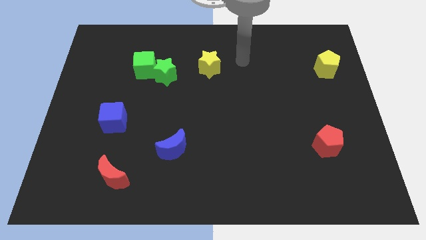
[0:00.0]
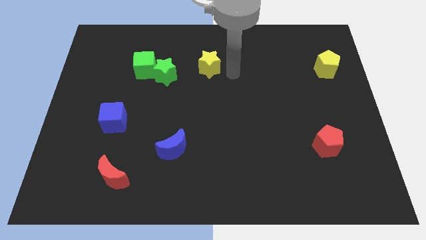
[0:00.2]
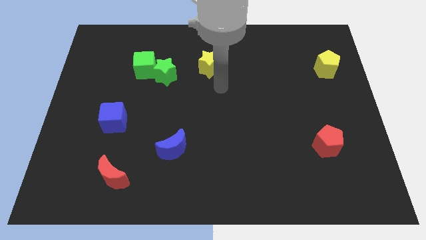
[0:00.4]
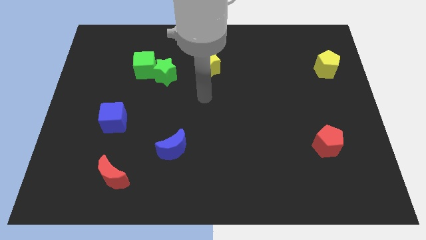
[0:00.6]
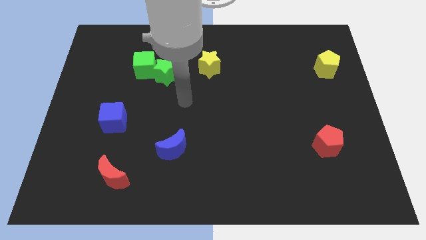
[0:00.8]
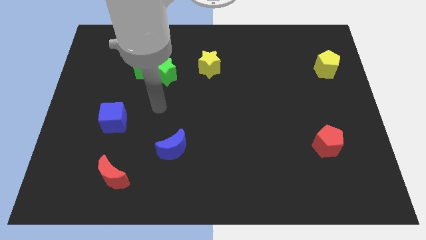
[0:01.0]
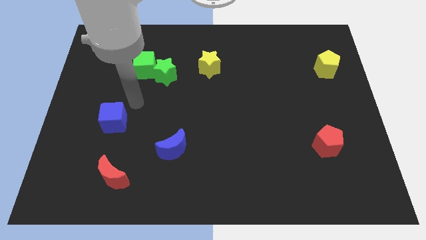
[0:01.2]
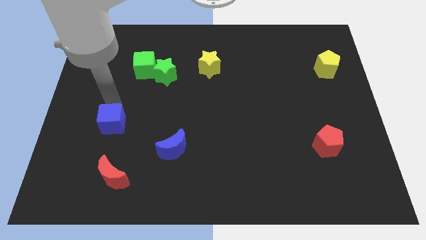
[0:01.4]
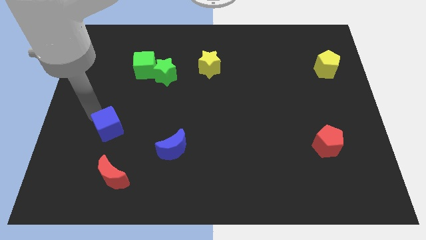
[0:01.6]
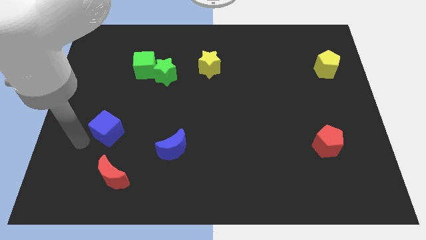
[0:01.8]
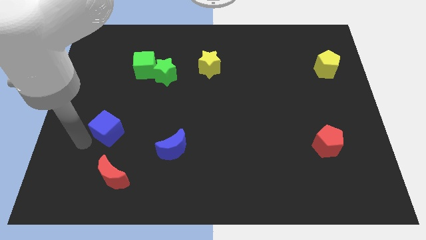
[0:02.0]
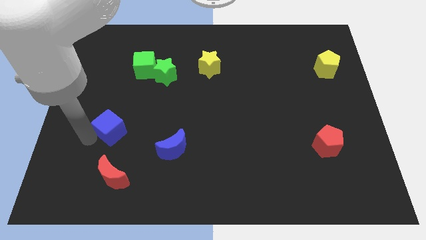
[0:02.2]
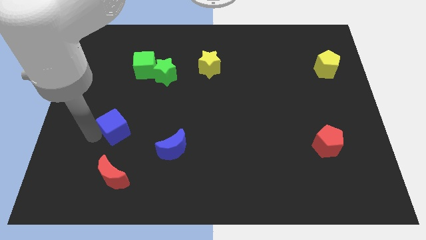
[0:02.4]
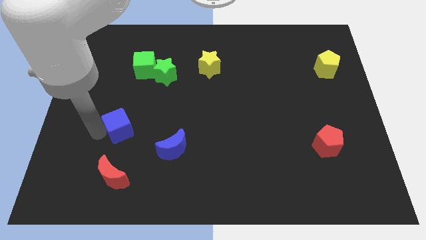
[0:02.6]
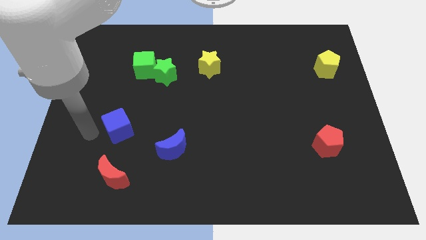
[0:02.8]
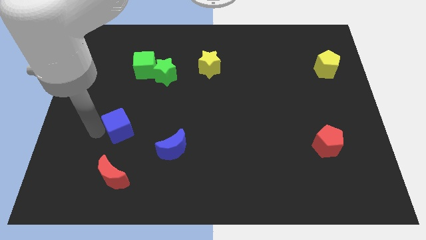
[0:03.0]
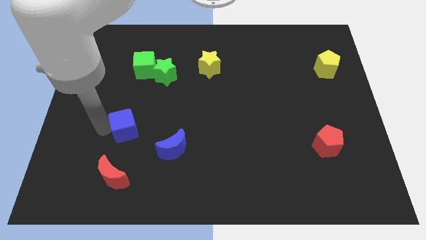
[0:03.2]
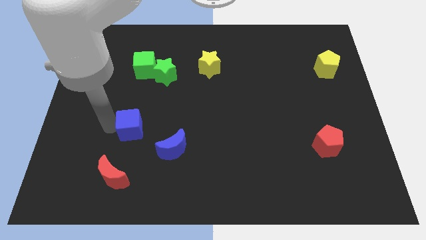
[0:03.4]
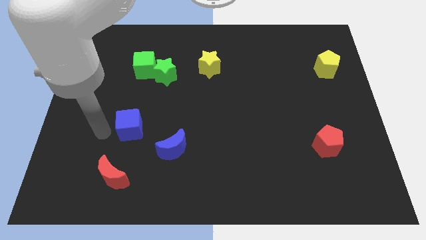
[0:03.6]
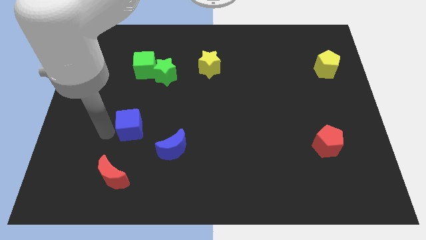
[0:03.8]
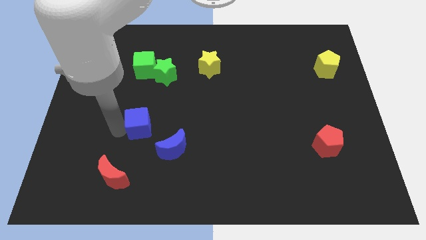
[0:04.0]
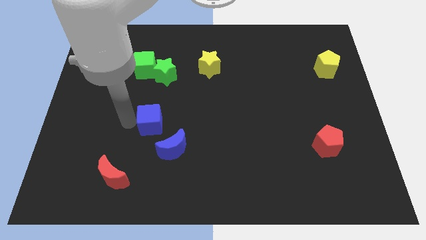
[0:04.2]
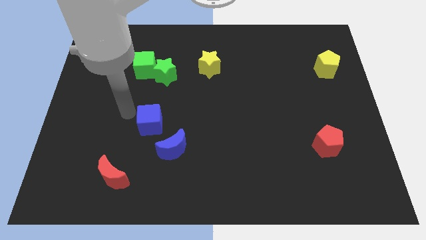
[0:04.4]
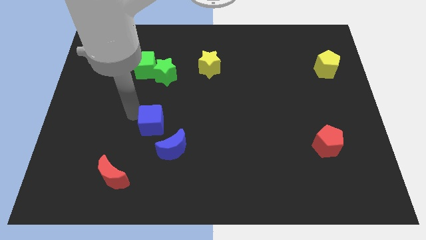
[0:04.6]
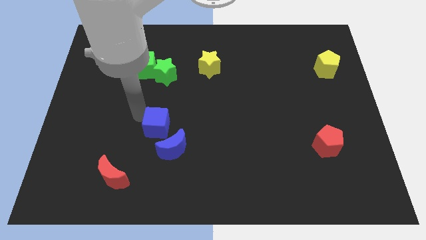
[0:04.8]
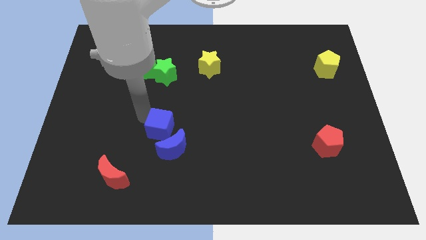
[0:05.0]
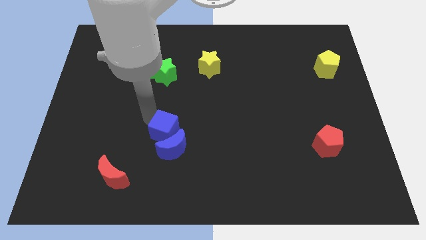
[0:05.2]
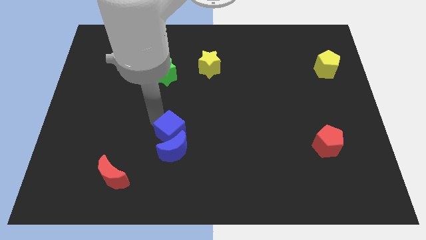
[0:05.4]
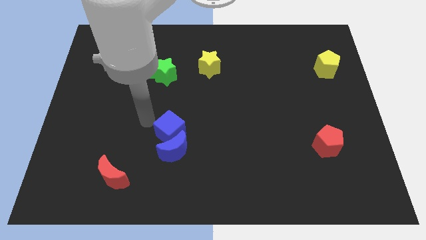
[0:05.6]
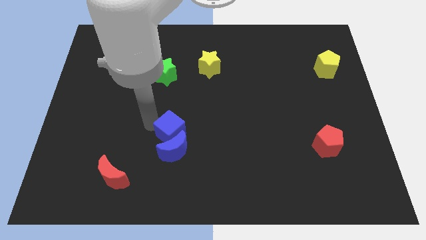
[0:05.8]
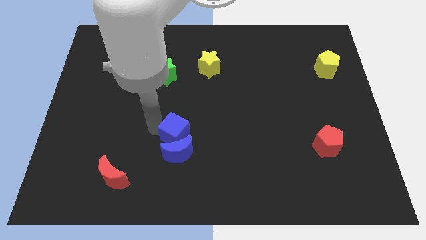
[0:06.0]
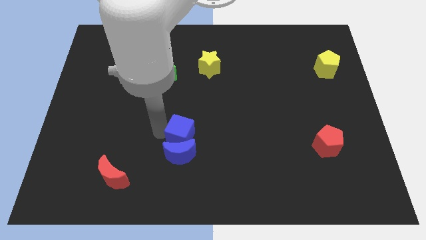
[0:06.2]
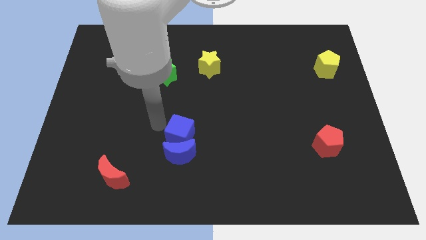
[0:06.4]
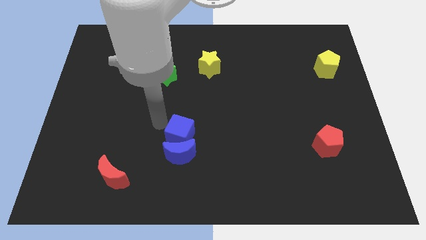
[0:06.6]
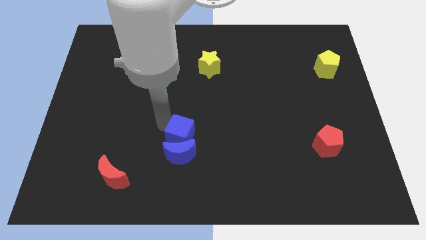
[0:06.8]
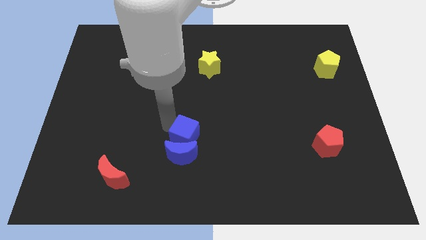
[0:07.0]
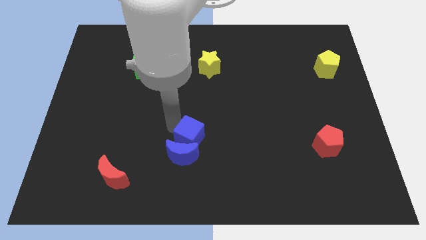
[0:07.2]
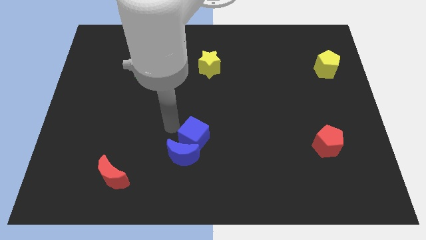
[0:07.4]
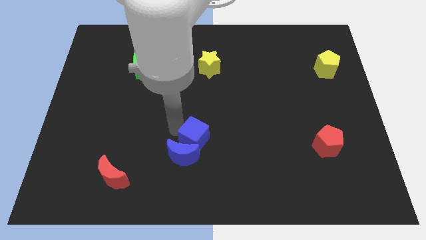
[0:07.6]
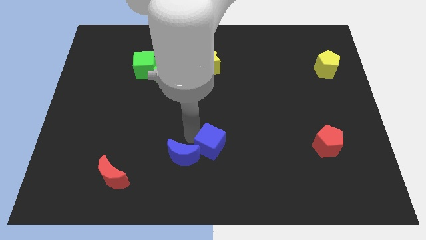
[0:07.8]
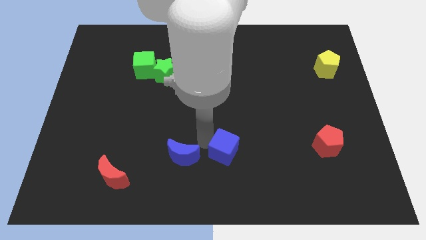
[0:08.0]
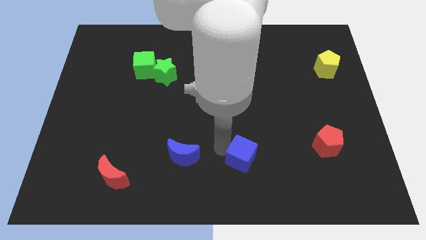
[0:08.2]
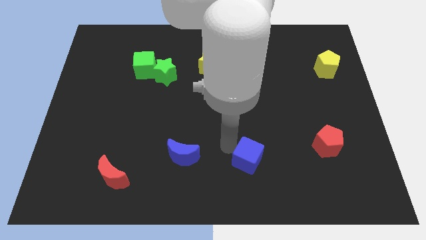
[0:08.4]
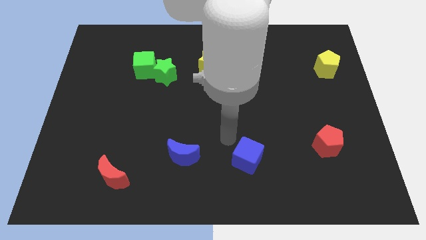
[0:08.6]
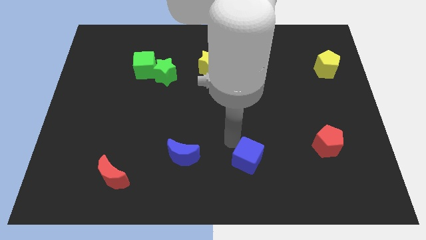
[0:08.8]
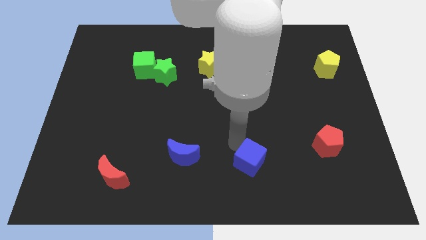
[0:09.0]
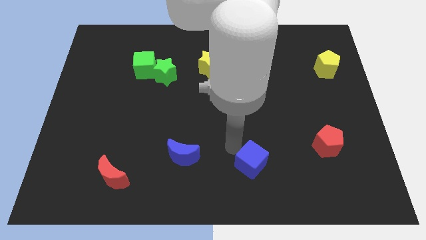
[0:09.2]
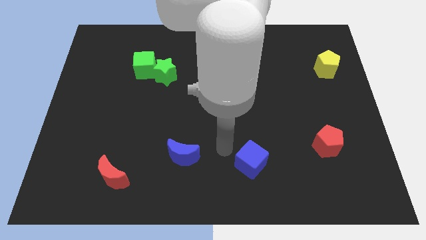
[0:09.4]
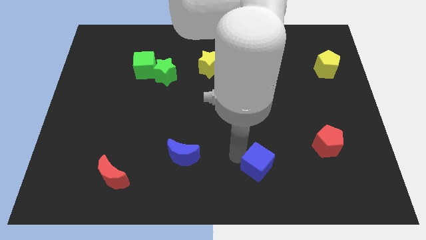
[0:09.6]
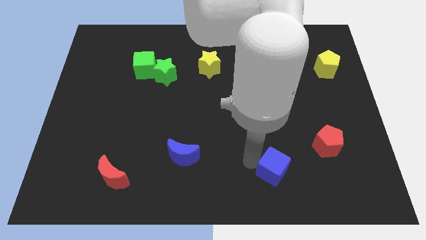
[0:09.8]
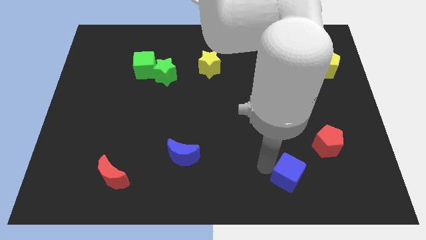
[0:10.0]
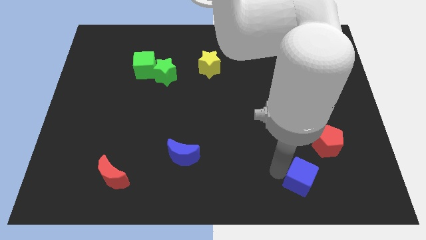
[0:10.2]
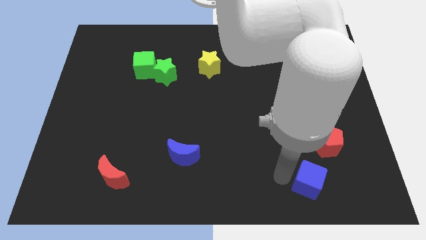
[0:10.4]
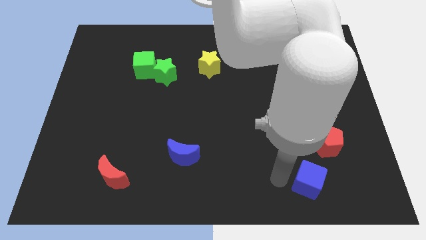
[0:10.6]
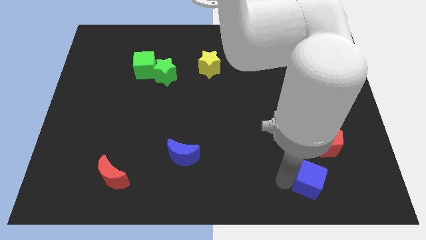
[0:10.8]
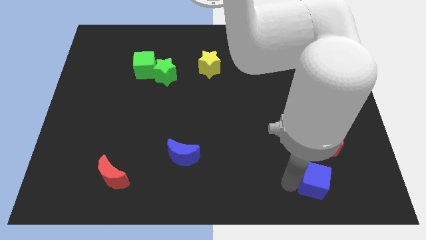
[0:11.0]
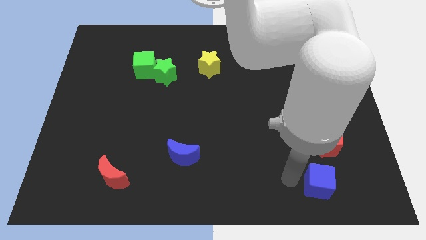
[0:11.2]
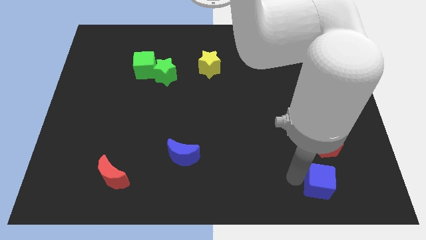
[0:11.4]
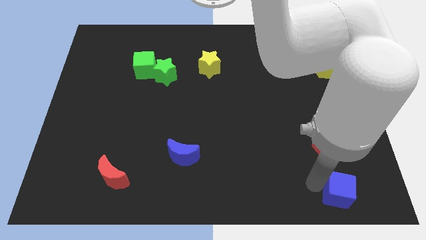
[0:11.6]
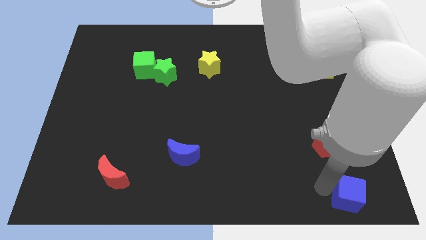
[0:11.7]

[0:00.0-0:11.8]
push the blue cube to the lower right corner
